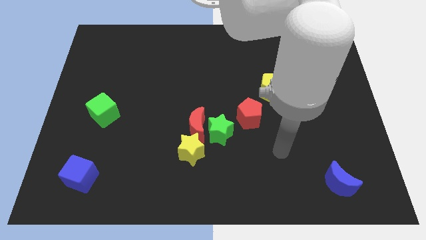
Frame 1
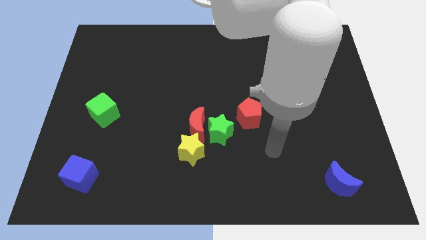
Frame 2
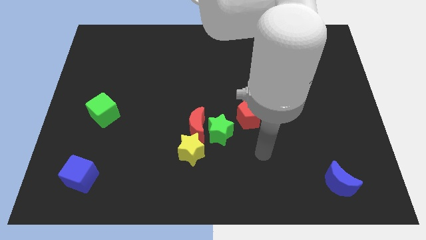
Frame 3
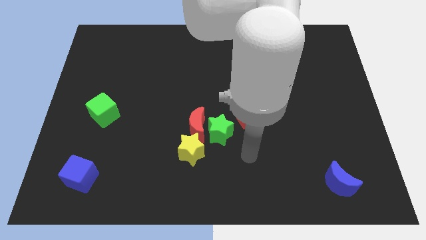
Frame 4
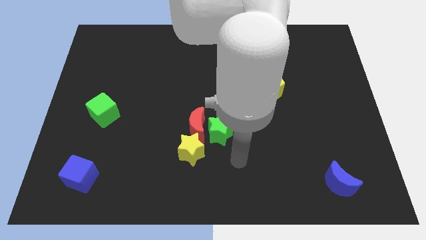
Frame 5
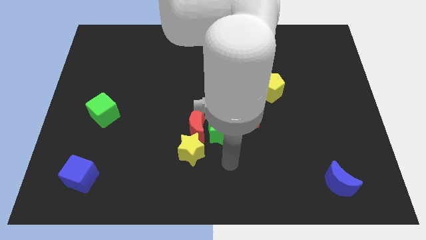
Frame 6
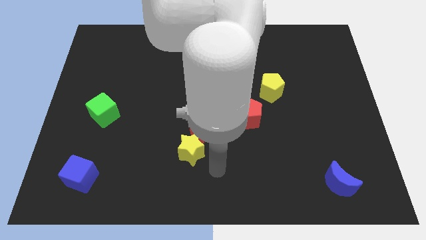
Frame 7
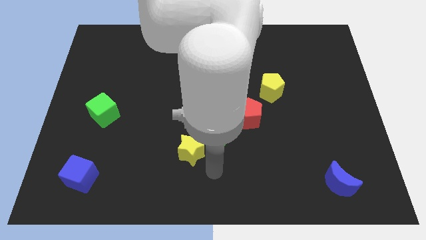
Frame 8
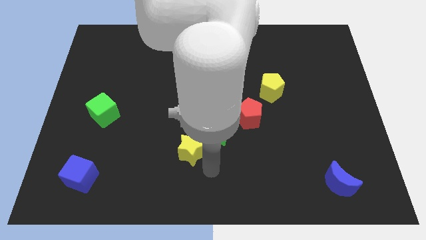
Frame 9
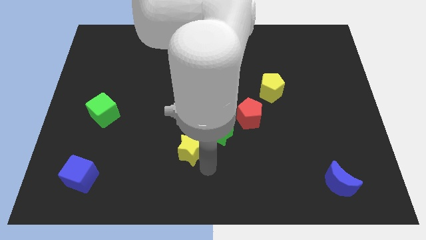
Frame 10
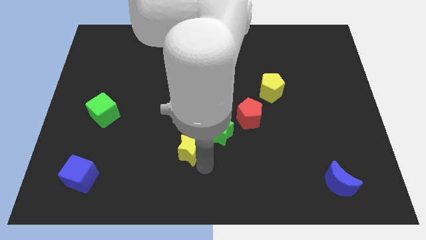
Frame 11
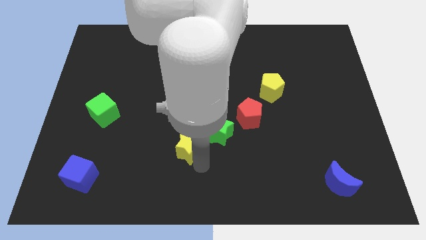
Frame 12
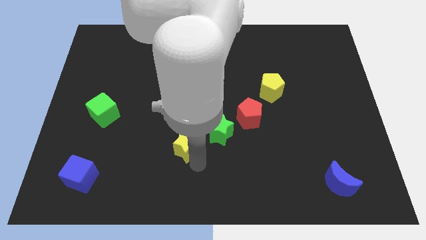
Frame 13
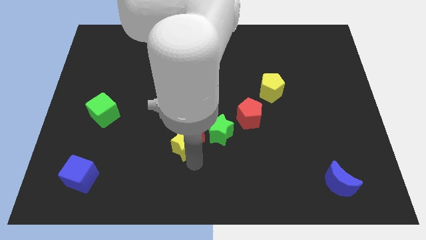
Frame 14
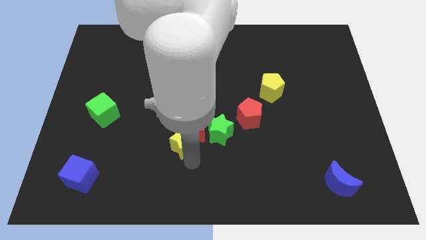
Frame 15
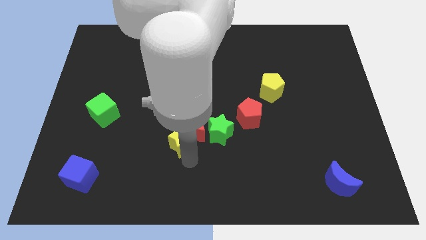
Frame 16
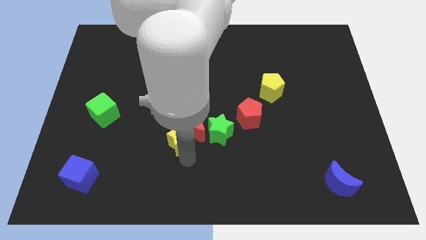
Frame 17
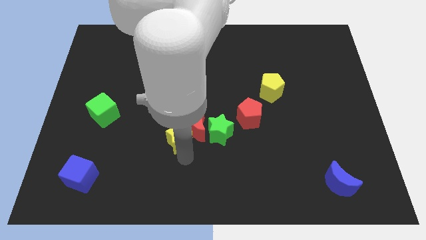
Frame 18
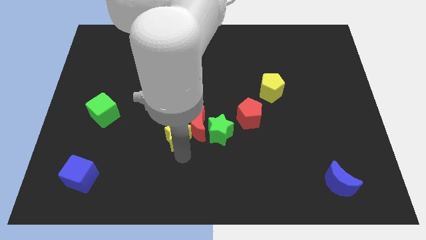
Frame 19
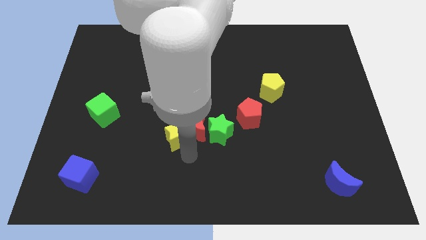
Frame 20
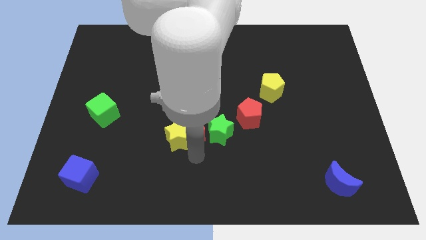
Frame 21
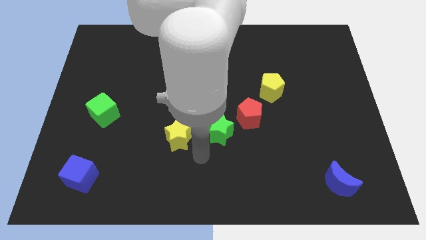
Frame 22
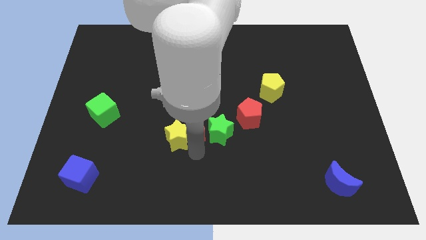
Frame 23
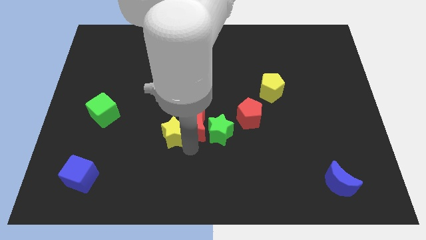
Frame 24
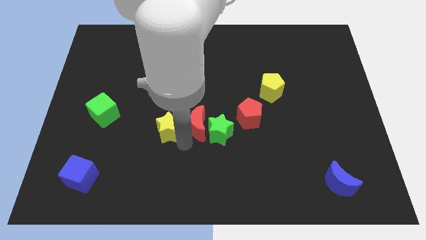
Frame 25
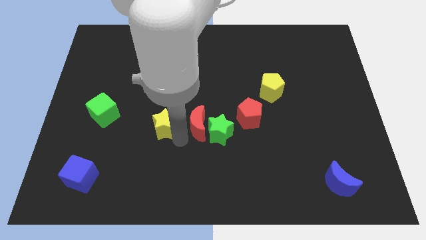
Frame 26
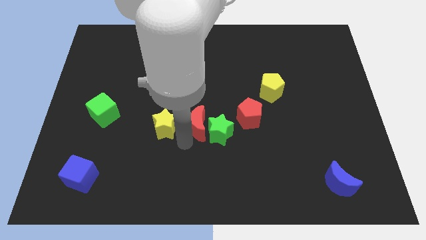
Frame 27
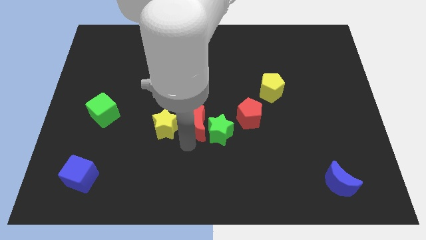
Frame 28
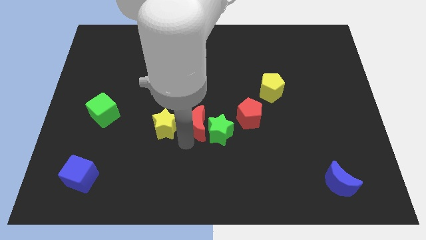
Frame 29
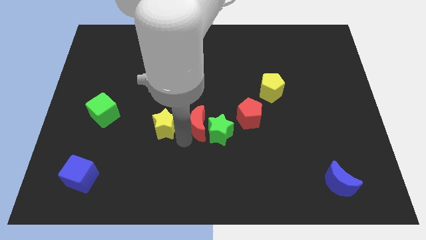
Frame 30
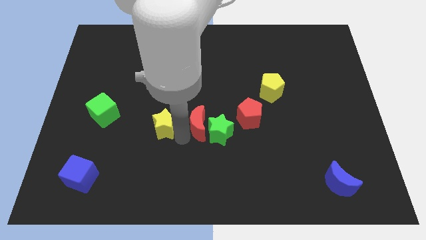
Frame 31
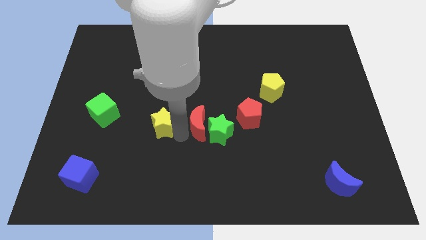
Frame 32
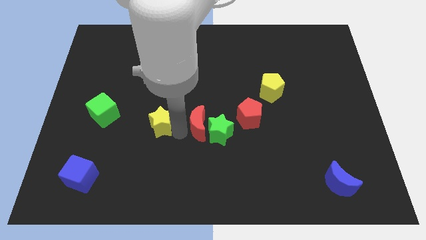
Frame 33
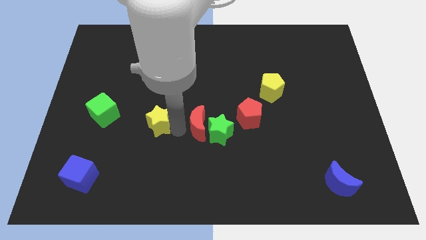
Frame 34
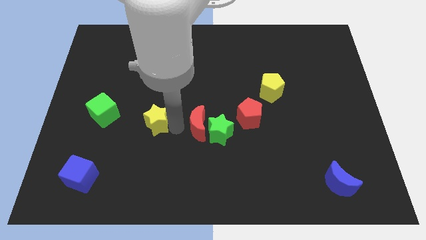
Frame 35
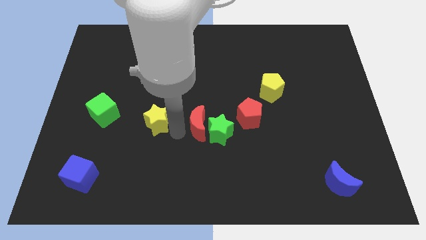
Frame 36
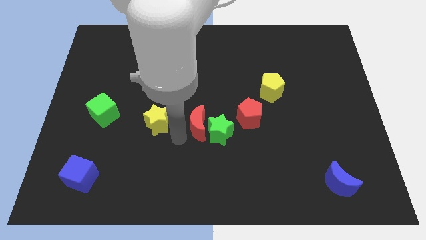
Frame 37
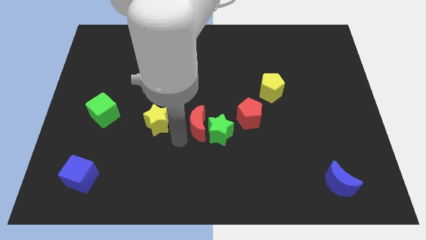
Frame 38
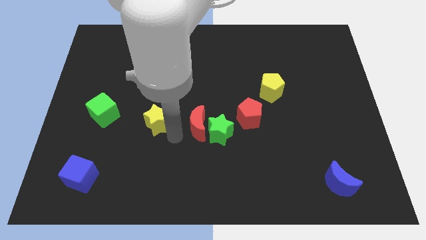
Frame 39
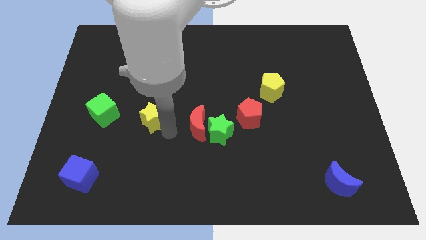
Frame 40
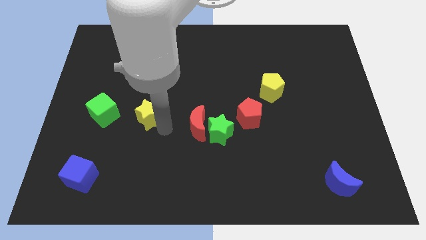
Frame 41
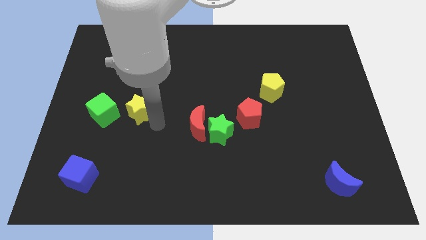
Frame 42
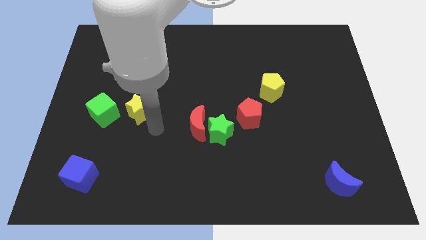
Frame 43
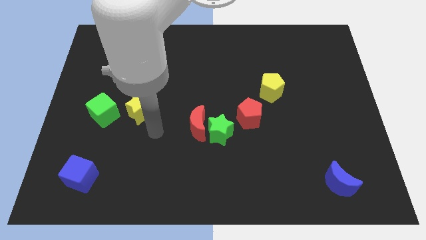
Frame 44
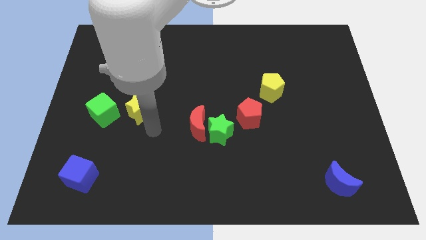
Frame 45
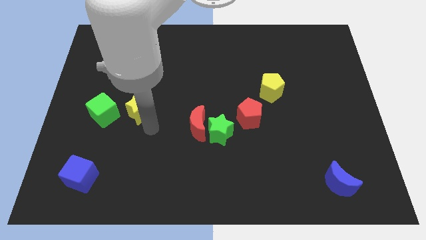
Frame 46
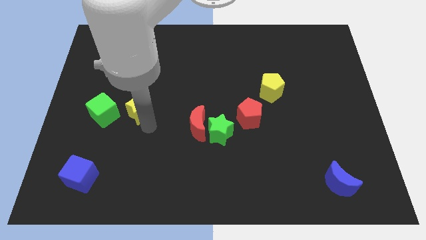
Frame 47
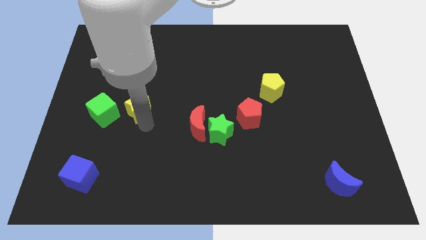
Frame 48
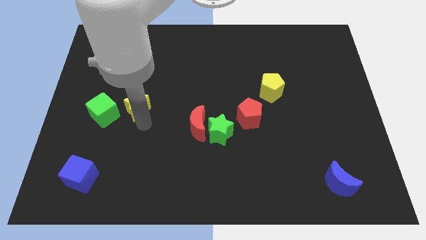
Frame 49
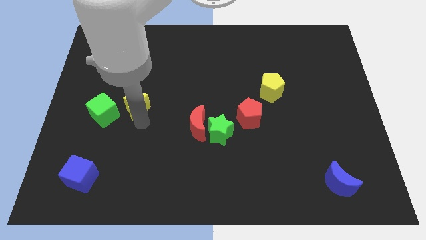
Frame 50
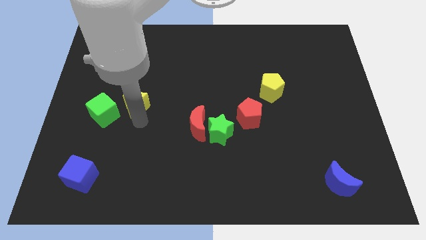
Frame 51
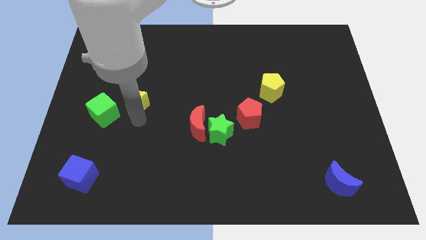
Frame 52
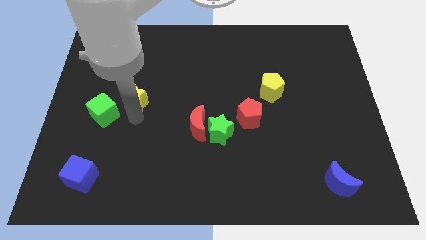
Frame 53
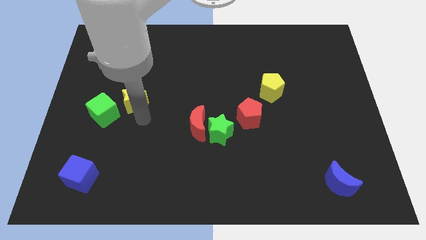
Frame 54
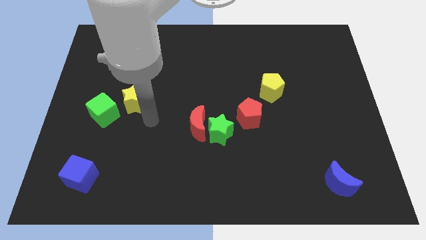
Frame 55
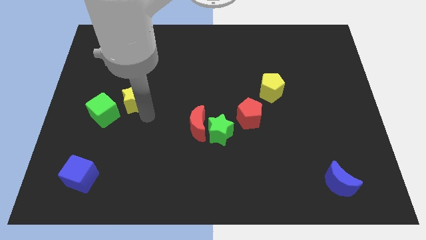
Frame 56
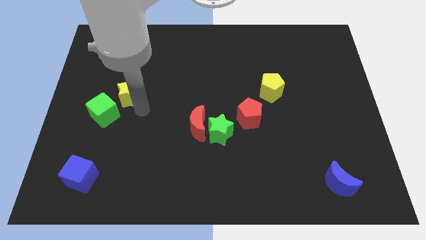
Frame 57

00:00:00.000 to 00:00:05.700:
move the yellow star diagonally upwards and to the left

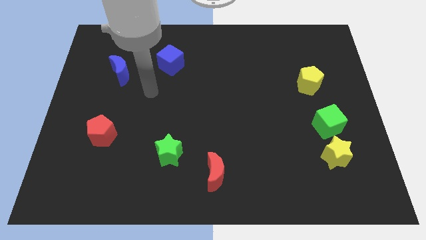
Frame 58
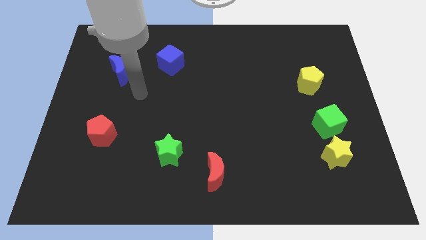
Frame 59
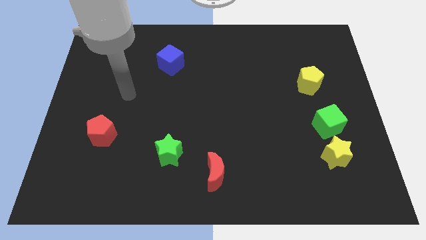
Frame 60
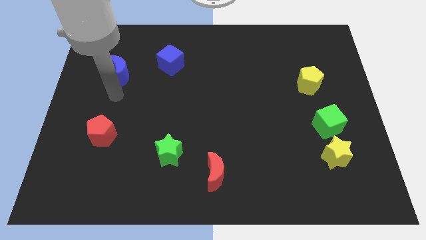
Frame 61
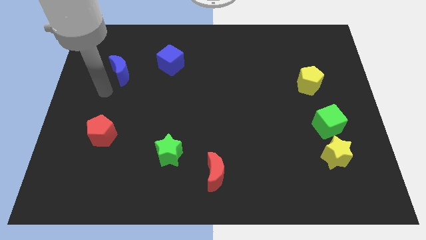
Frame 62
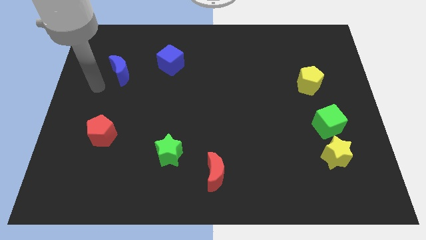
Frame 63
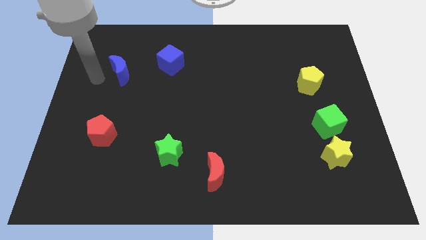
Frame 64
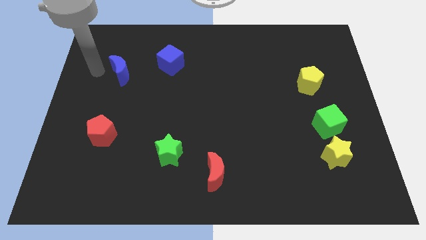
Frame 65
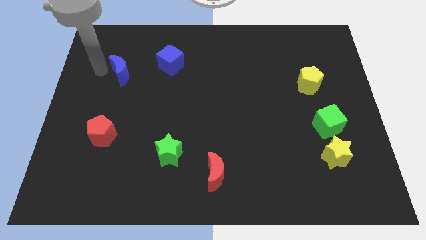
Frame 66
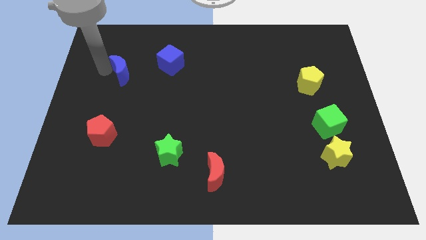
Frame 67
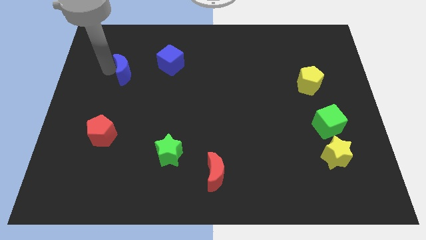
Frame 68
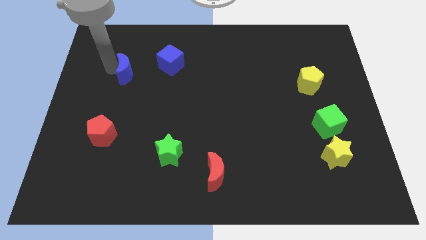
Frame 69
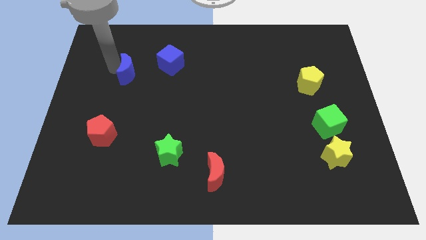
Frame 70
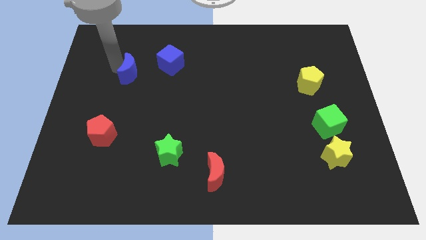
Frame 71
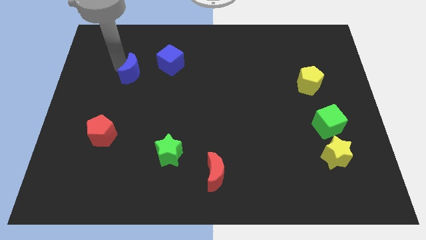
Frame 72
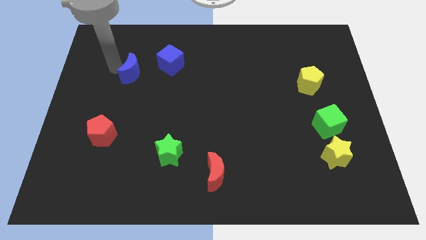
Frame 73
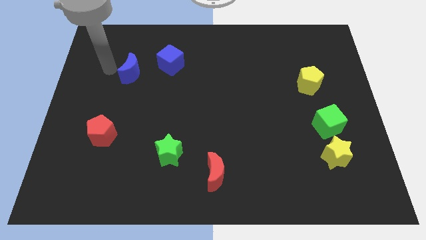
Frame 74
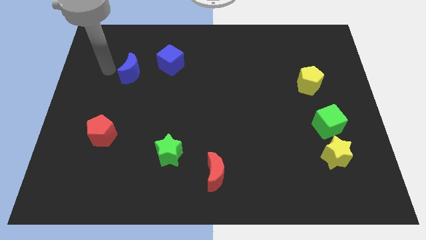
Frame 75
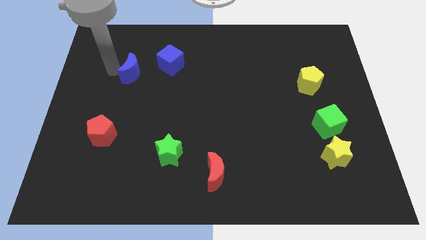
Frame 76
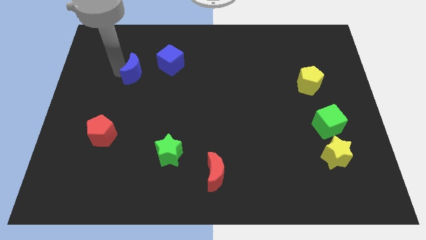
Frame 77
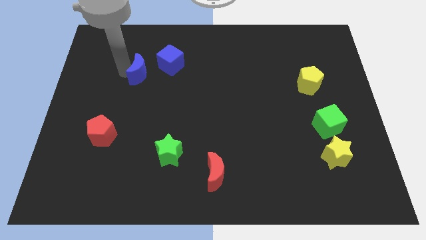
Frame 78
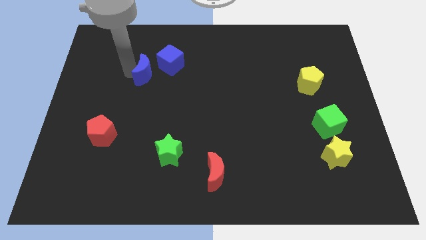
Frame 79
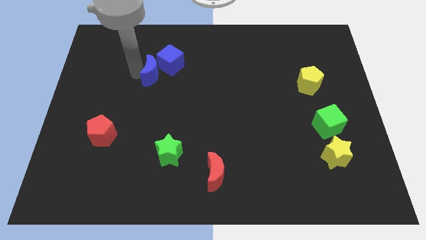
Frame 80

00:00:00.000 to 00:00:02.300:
slightly push the blue moon right

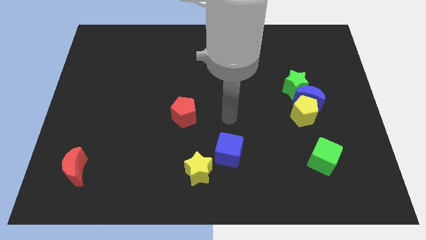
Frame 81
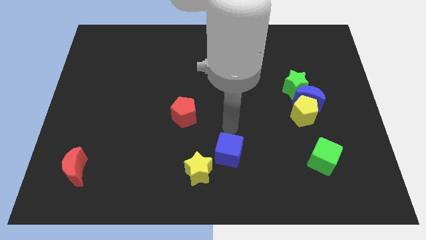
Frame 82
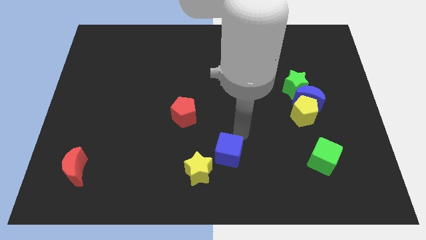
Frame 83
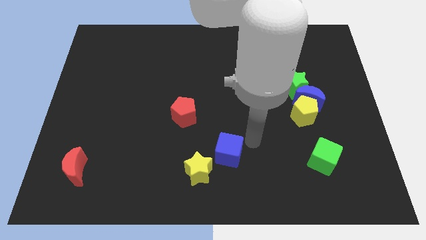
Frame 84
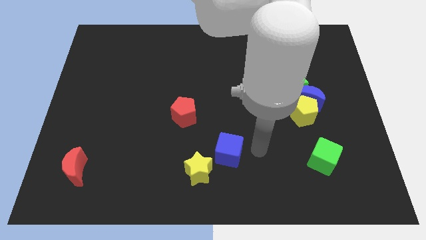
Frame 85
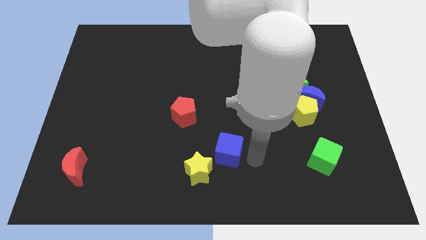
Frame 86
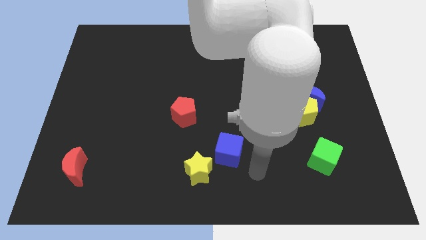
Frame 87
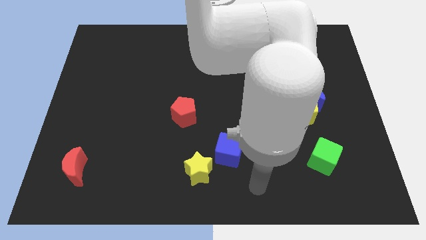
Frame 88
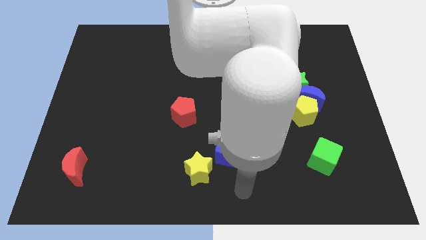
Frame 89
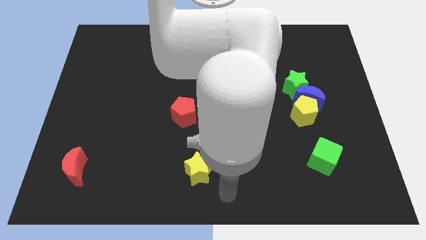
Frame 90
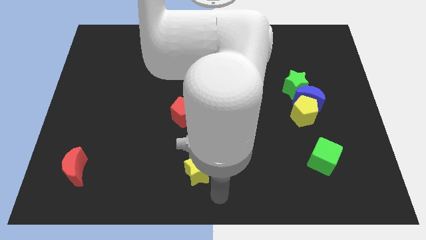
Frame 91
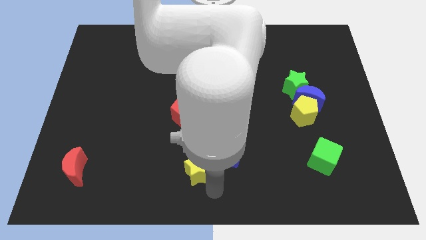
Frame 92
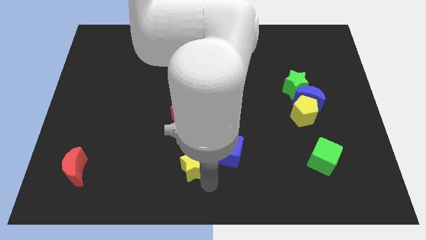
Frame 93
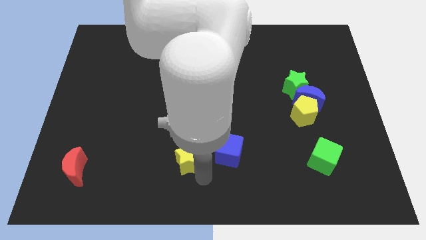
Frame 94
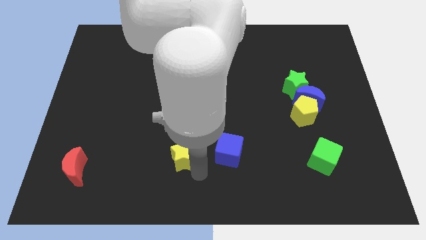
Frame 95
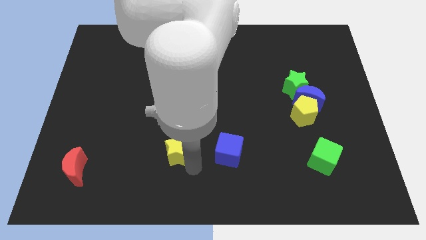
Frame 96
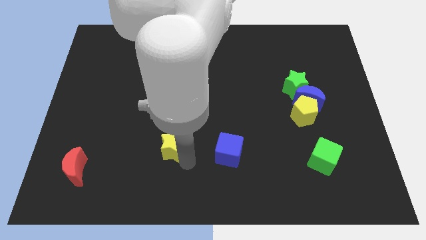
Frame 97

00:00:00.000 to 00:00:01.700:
push the yellow star a bit diagonally up and to the left
